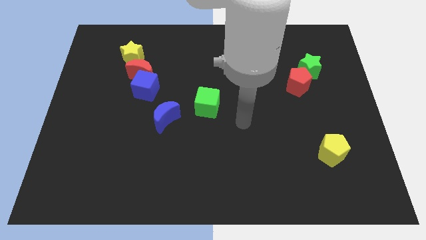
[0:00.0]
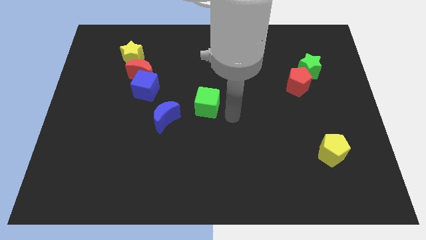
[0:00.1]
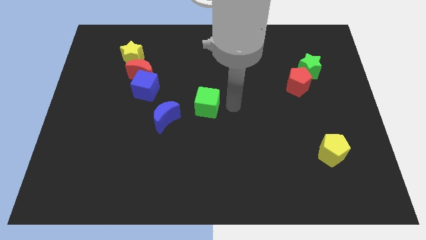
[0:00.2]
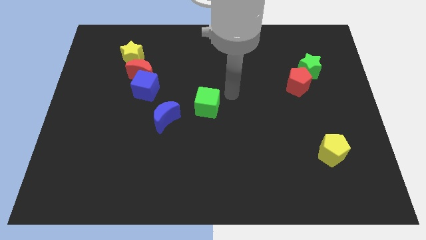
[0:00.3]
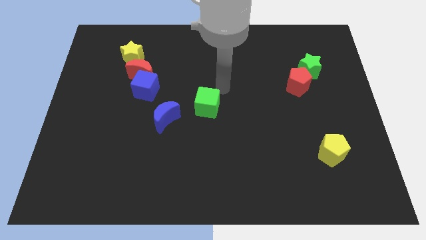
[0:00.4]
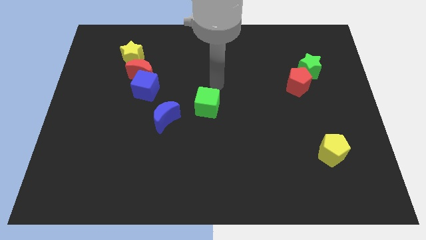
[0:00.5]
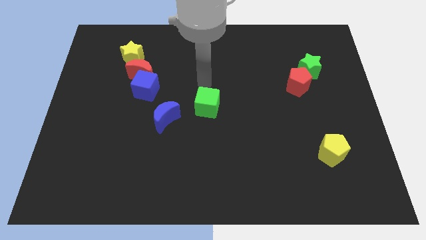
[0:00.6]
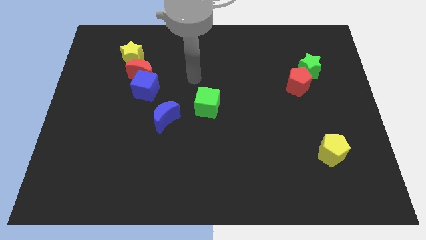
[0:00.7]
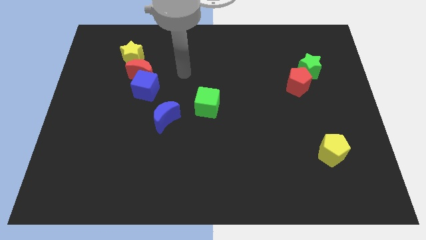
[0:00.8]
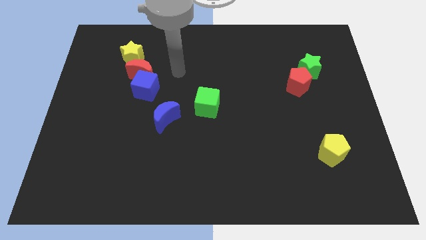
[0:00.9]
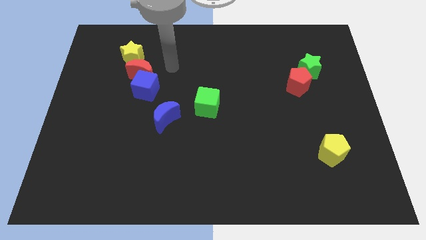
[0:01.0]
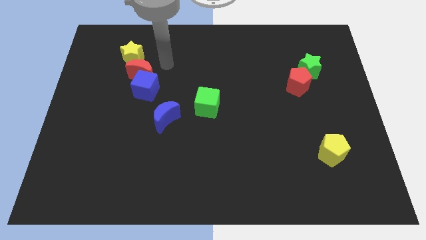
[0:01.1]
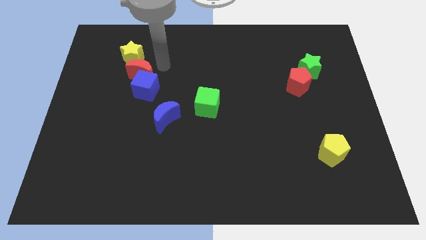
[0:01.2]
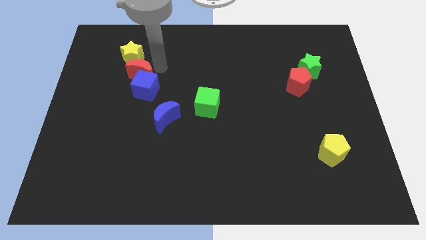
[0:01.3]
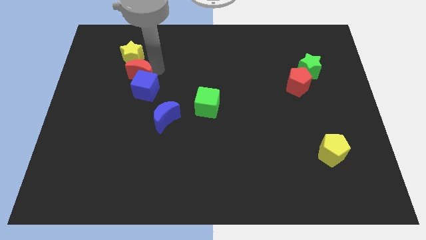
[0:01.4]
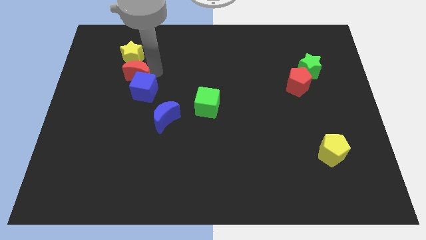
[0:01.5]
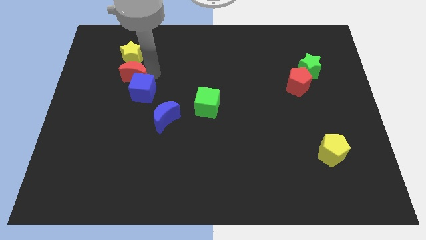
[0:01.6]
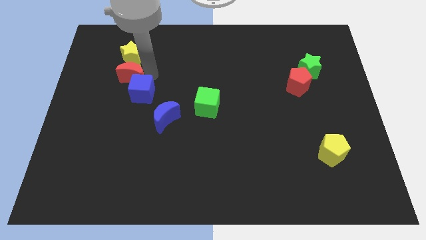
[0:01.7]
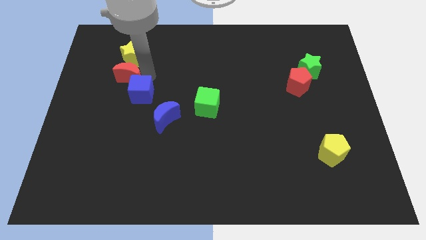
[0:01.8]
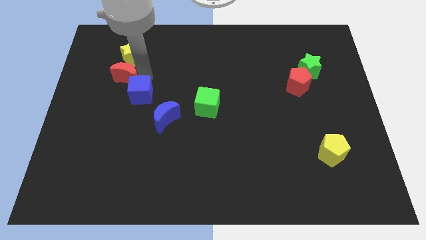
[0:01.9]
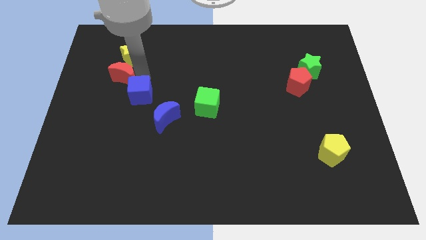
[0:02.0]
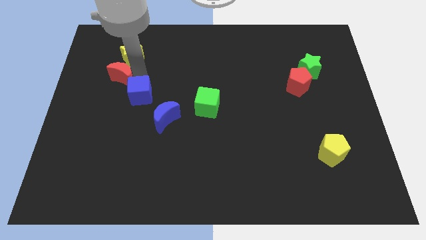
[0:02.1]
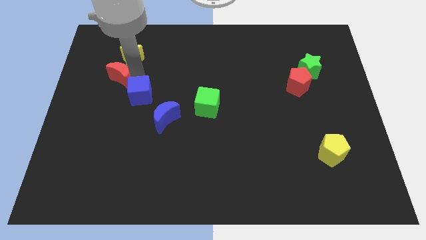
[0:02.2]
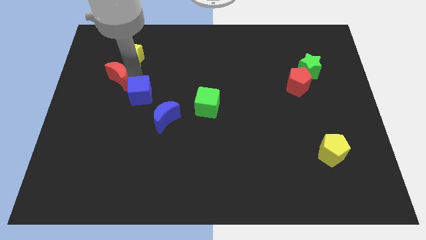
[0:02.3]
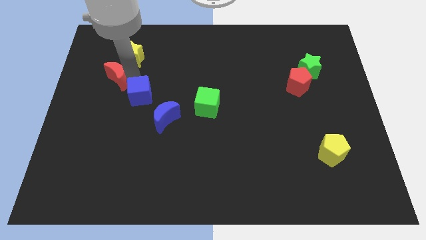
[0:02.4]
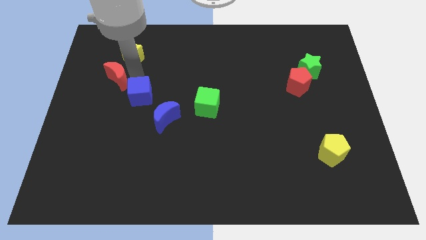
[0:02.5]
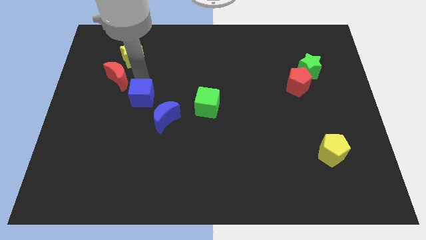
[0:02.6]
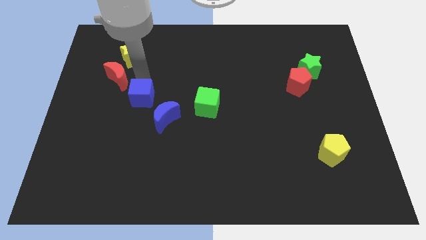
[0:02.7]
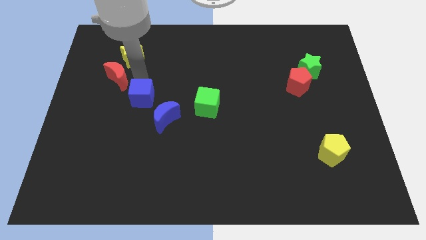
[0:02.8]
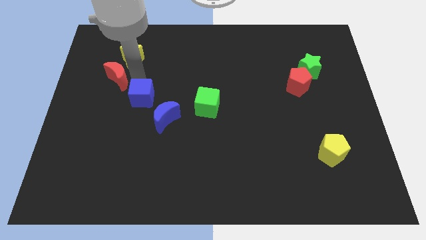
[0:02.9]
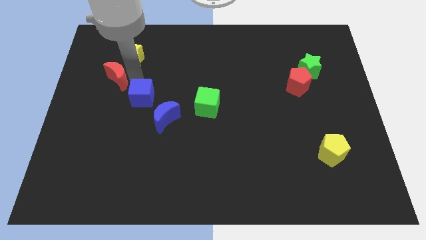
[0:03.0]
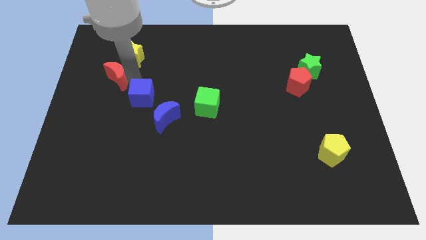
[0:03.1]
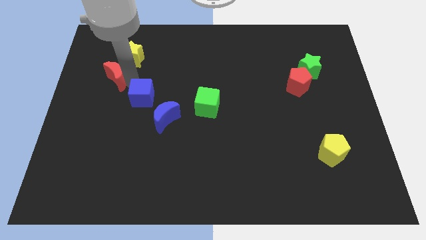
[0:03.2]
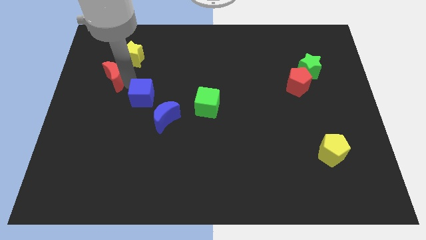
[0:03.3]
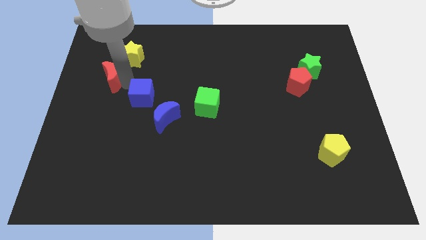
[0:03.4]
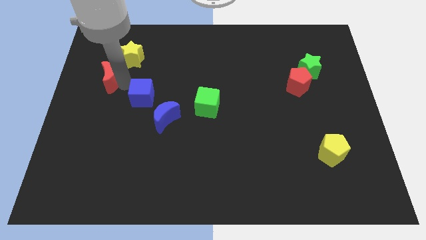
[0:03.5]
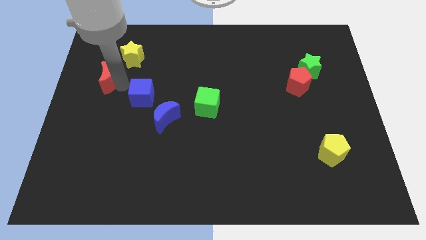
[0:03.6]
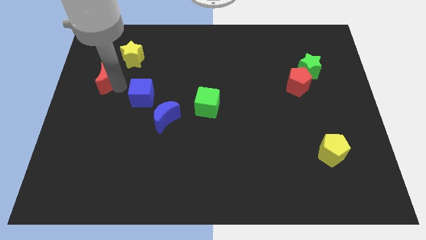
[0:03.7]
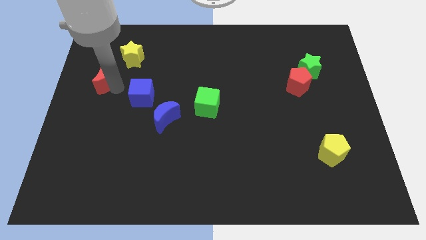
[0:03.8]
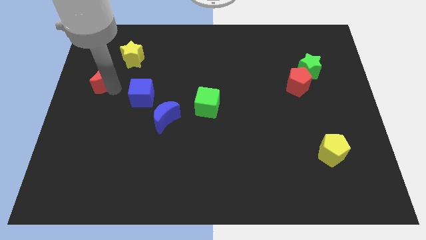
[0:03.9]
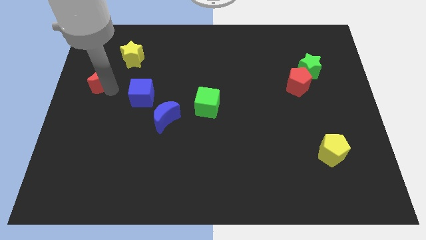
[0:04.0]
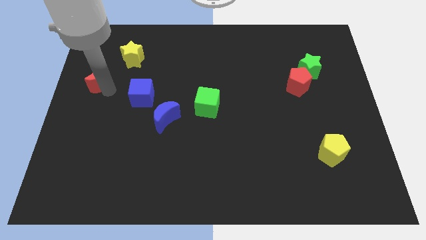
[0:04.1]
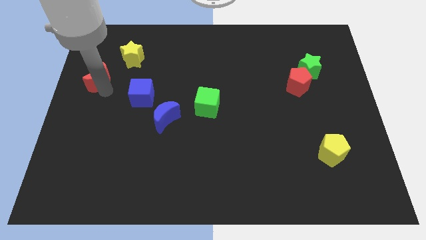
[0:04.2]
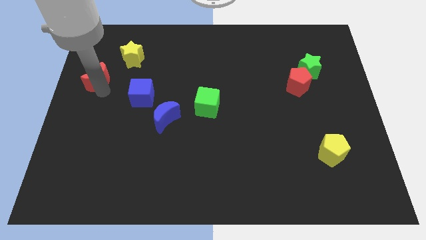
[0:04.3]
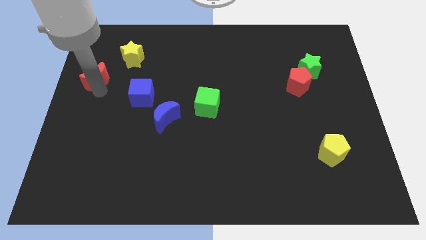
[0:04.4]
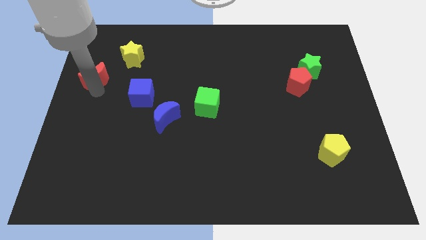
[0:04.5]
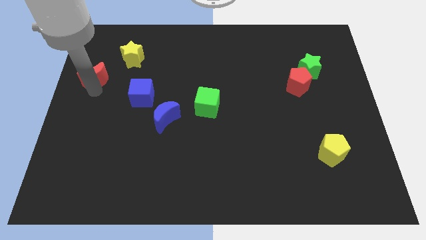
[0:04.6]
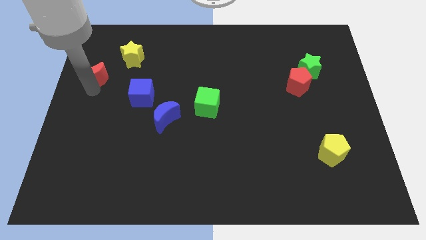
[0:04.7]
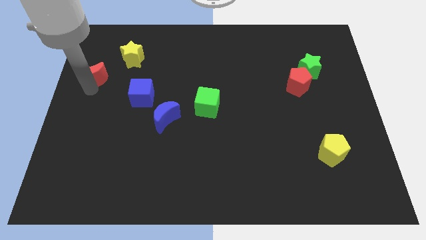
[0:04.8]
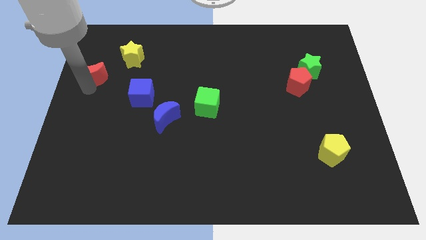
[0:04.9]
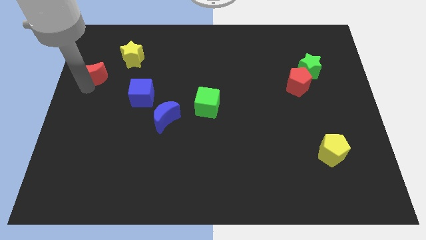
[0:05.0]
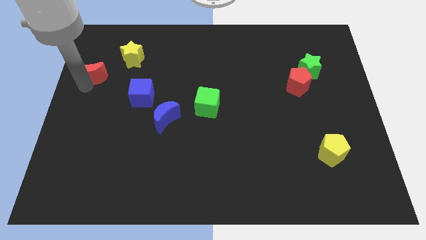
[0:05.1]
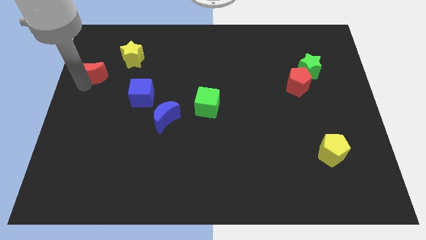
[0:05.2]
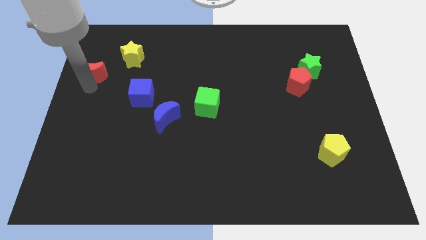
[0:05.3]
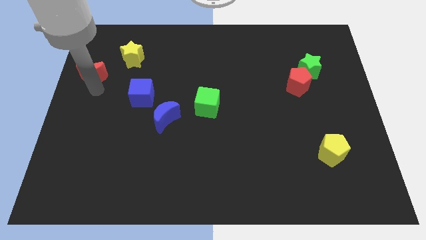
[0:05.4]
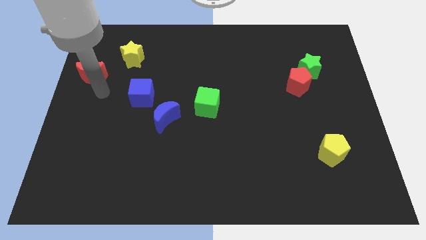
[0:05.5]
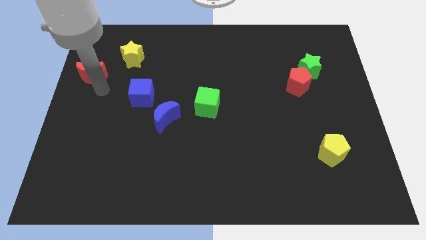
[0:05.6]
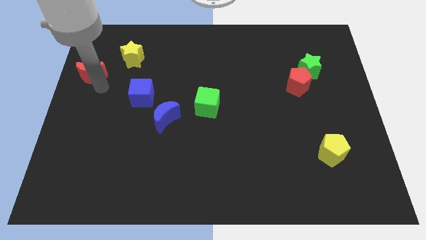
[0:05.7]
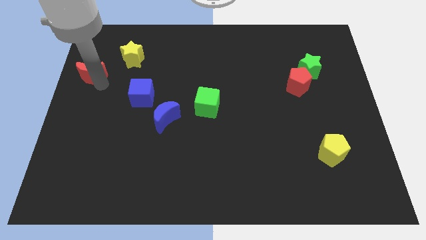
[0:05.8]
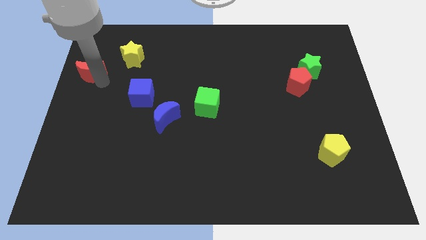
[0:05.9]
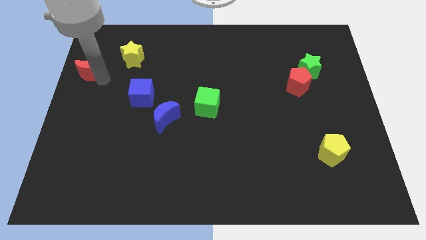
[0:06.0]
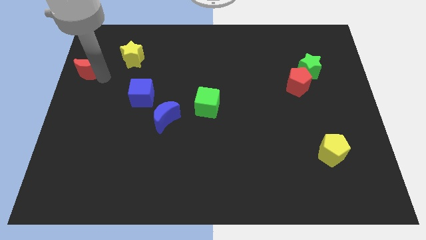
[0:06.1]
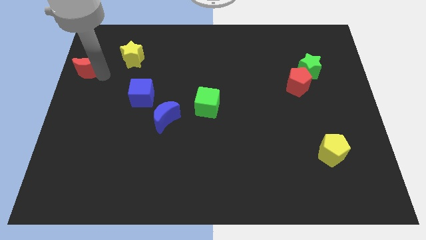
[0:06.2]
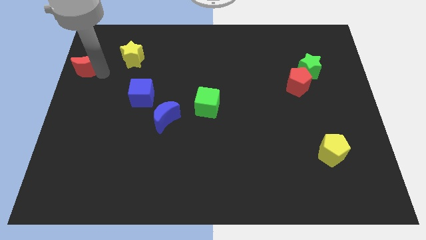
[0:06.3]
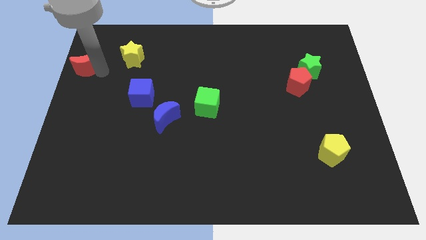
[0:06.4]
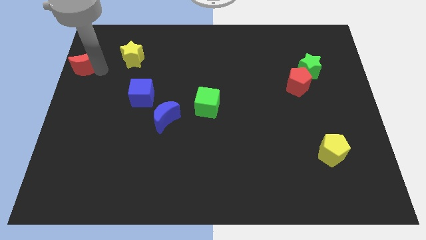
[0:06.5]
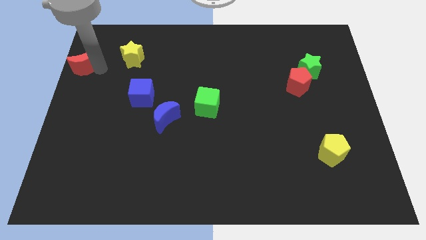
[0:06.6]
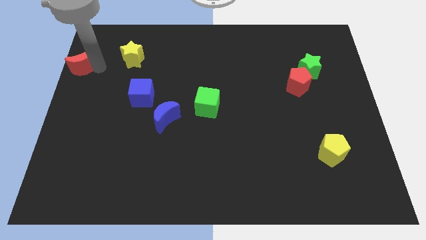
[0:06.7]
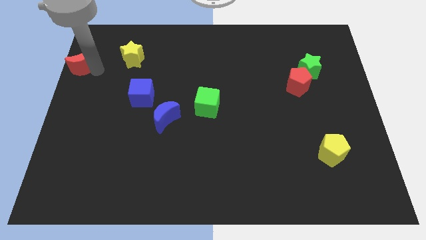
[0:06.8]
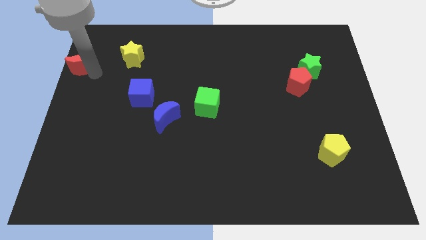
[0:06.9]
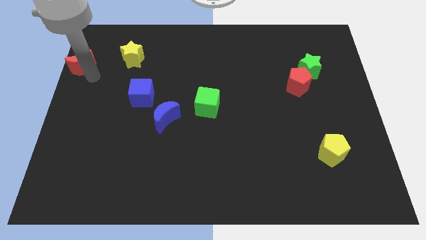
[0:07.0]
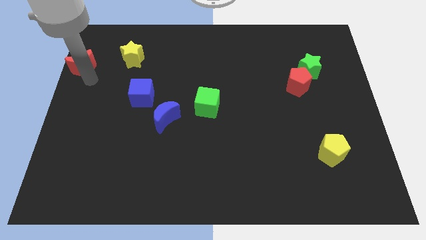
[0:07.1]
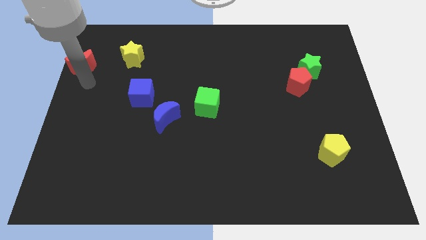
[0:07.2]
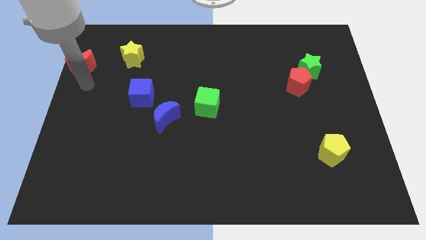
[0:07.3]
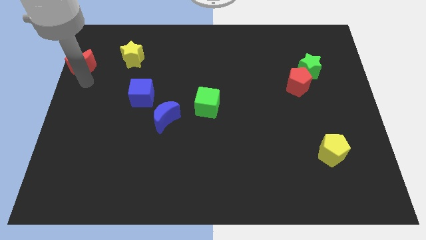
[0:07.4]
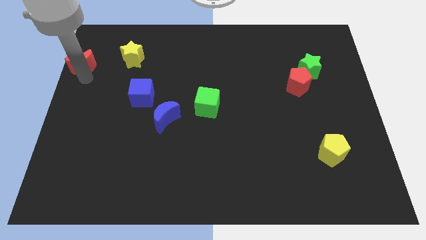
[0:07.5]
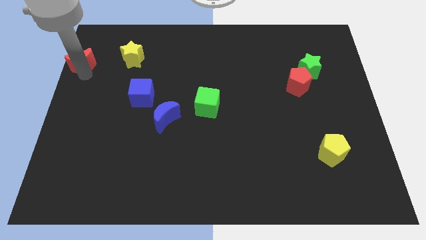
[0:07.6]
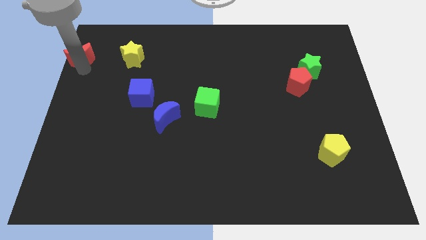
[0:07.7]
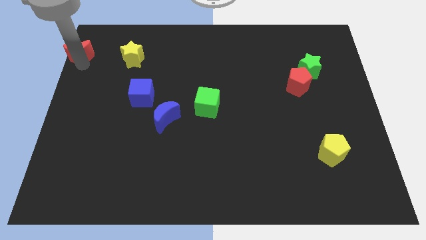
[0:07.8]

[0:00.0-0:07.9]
slide the red moon to the top left corner
